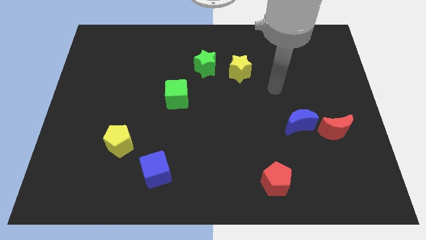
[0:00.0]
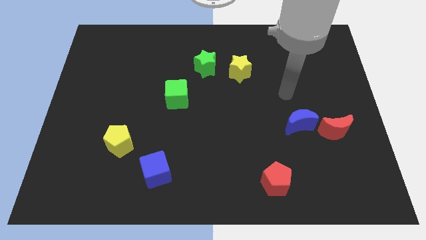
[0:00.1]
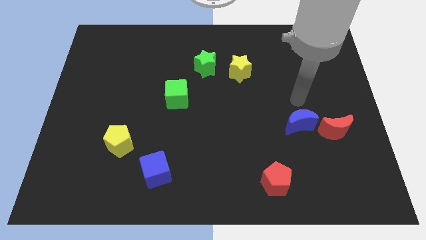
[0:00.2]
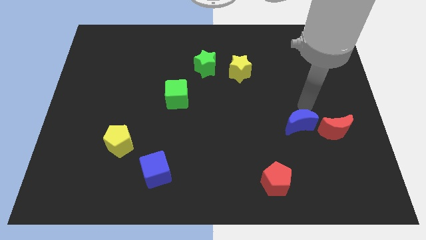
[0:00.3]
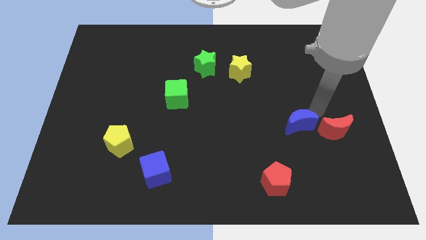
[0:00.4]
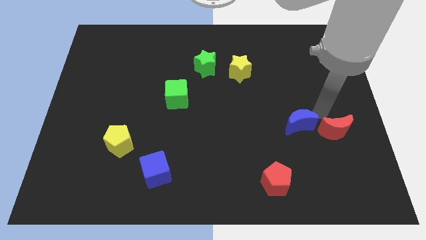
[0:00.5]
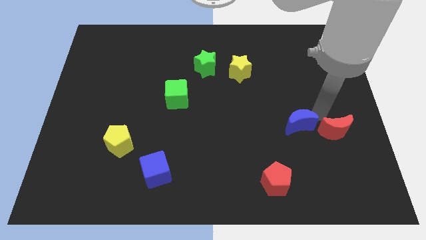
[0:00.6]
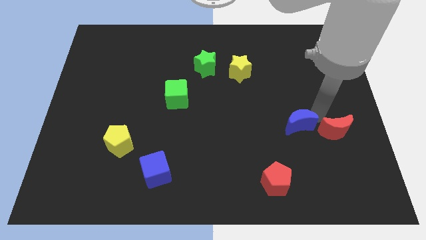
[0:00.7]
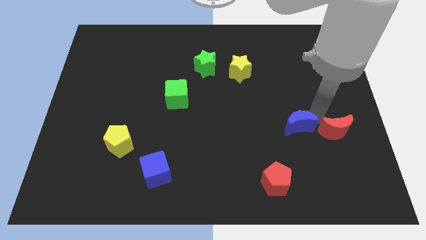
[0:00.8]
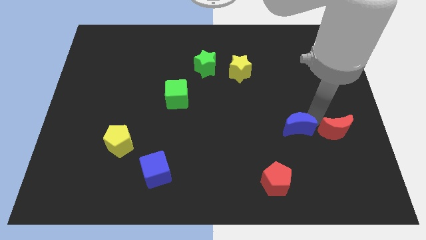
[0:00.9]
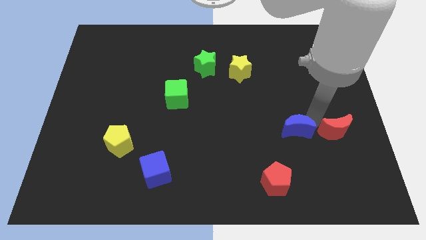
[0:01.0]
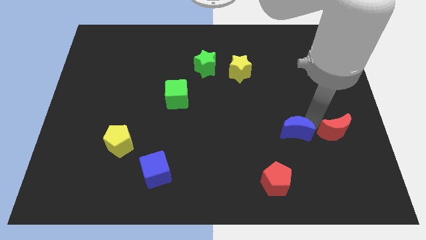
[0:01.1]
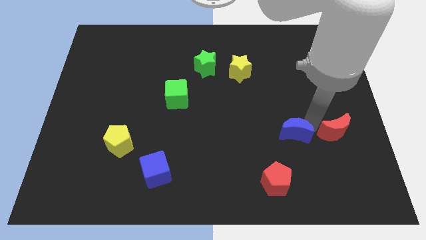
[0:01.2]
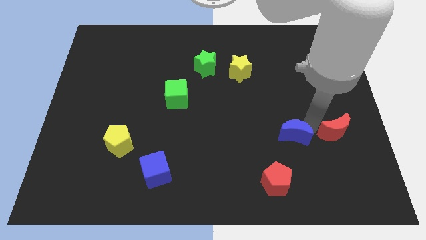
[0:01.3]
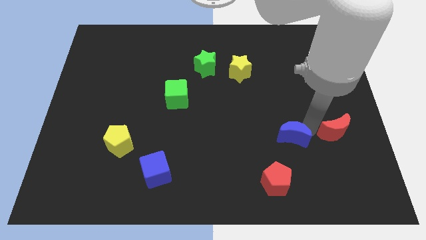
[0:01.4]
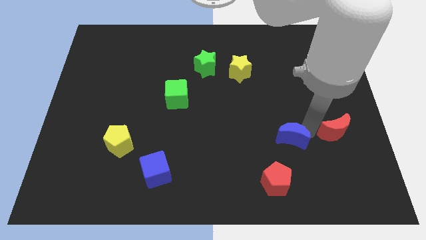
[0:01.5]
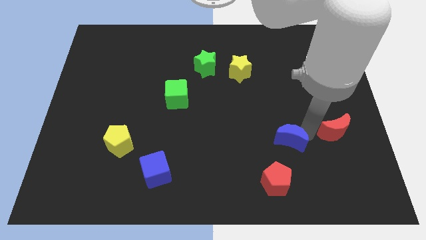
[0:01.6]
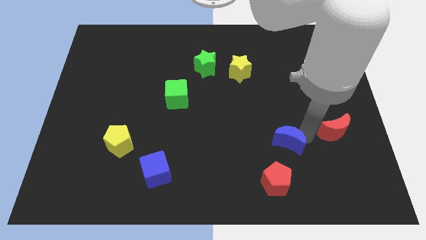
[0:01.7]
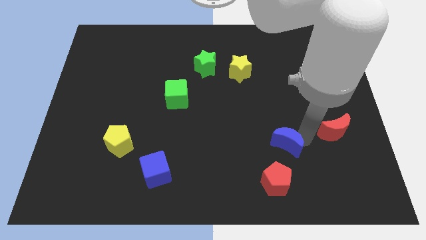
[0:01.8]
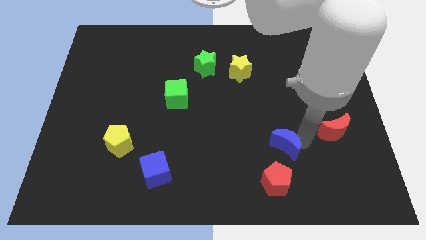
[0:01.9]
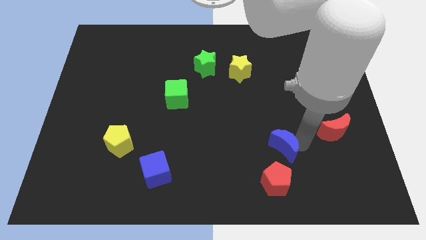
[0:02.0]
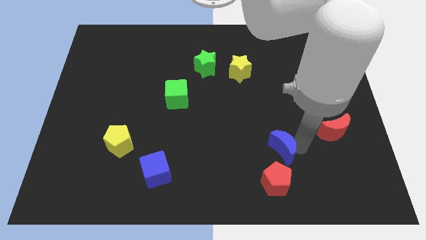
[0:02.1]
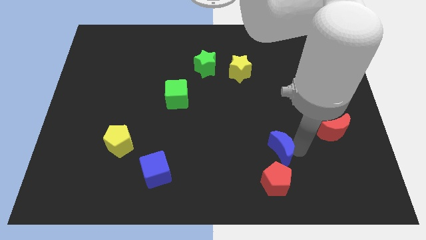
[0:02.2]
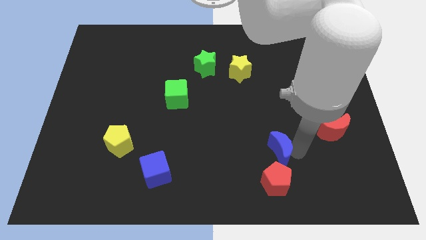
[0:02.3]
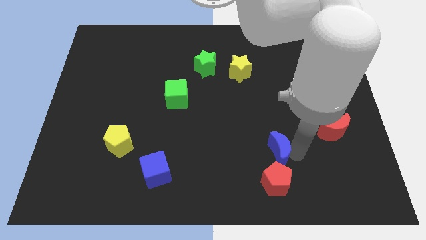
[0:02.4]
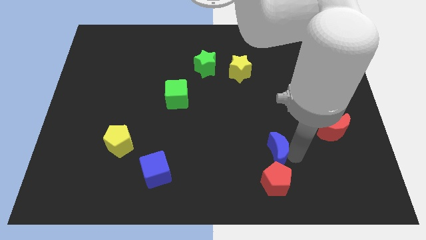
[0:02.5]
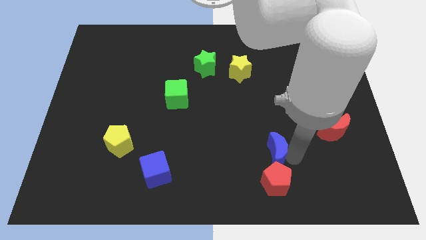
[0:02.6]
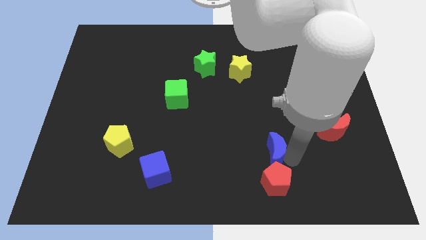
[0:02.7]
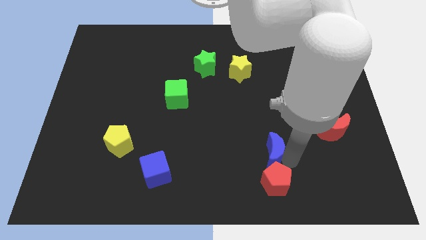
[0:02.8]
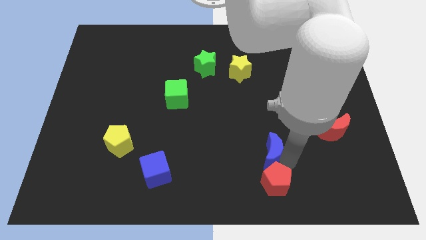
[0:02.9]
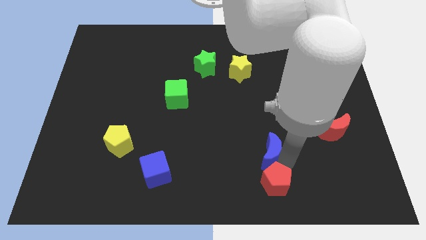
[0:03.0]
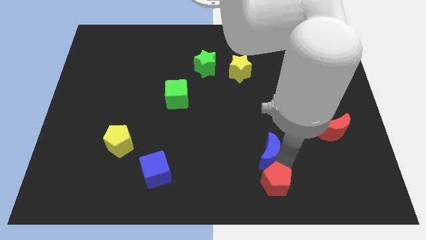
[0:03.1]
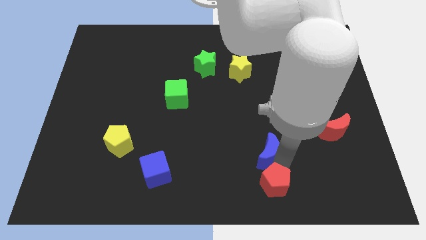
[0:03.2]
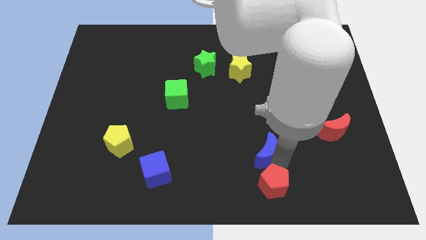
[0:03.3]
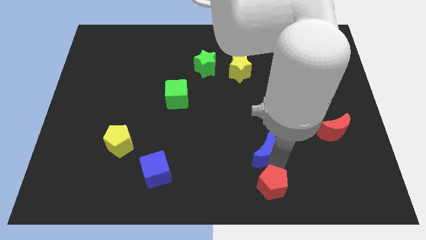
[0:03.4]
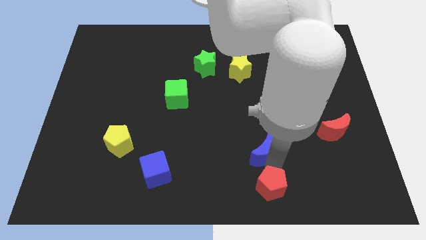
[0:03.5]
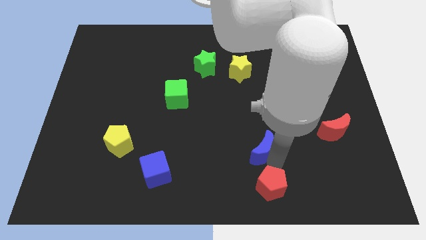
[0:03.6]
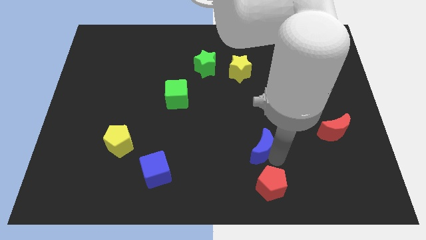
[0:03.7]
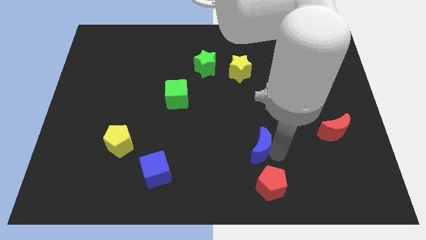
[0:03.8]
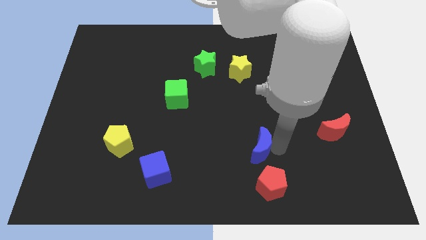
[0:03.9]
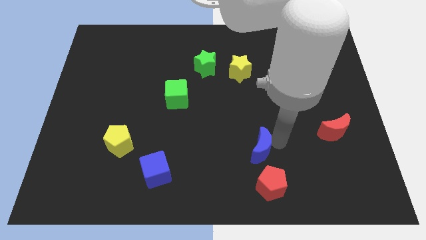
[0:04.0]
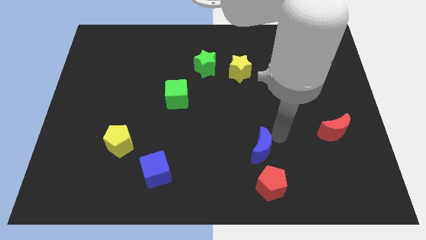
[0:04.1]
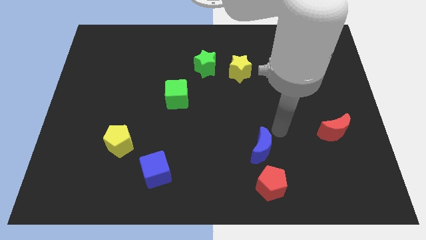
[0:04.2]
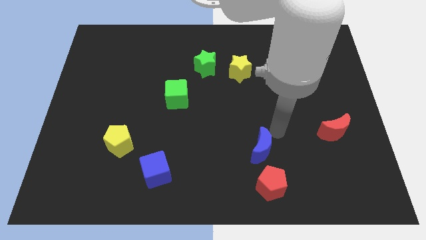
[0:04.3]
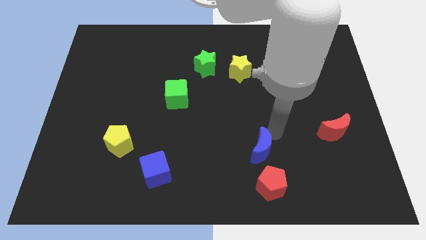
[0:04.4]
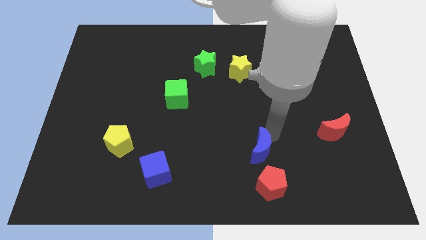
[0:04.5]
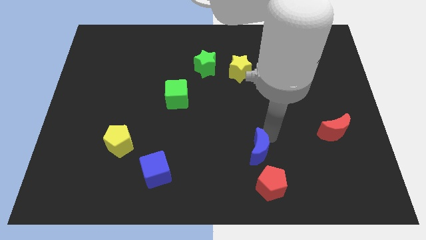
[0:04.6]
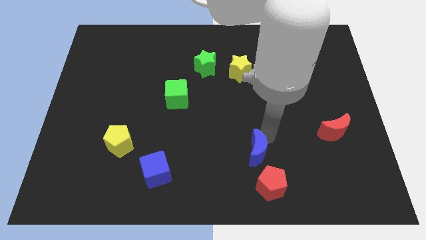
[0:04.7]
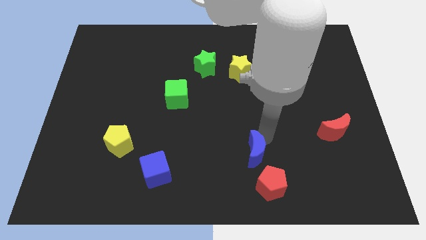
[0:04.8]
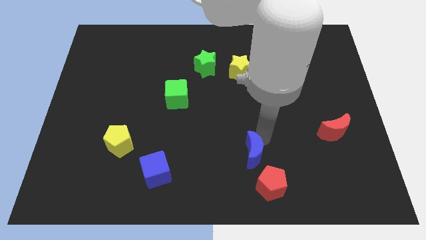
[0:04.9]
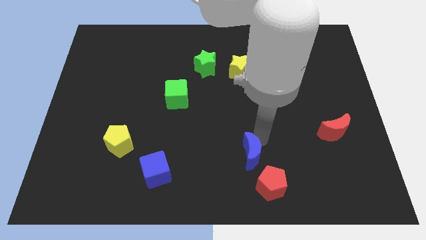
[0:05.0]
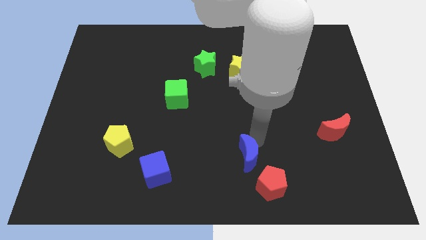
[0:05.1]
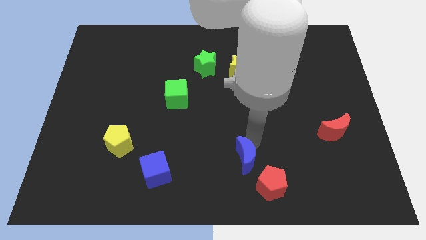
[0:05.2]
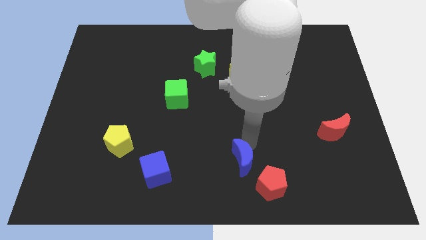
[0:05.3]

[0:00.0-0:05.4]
put the blue moon to the bottom side

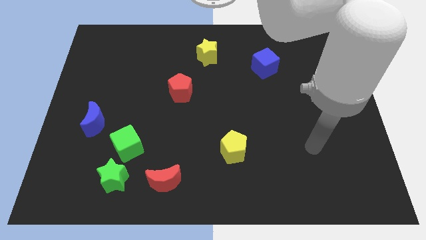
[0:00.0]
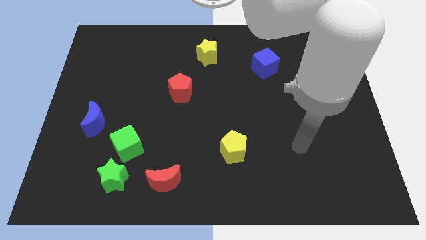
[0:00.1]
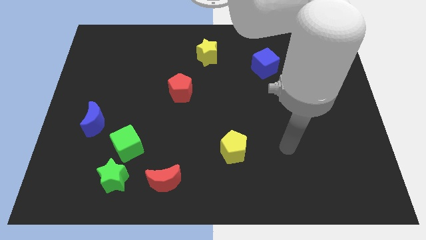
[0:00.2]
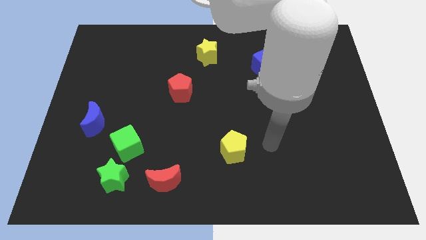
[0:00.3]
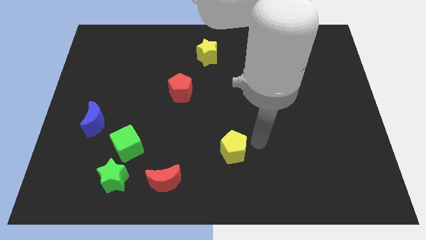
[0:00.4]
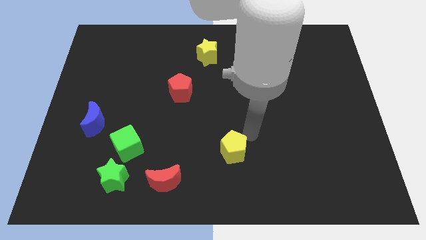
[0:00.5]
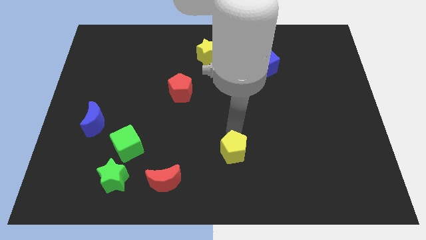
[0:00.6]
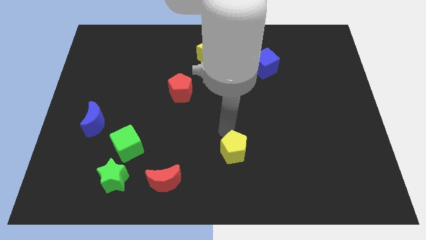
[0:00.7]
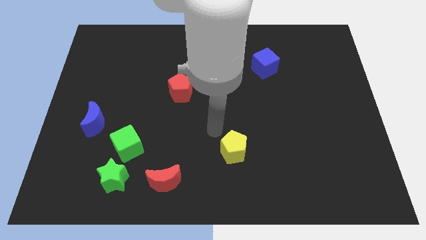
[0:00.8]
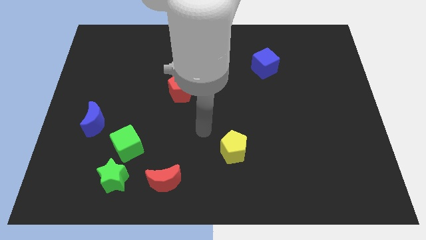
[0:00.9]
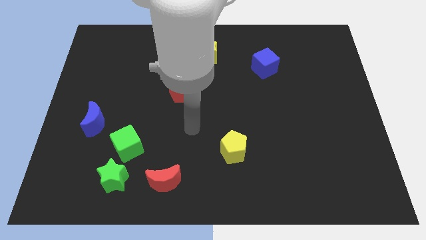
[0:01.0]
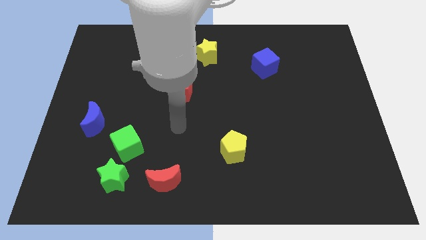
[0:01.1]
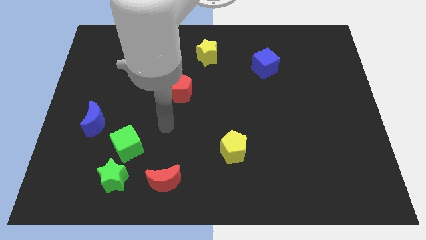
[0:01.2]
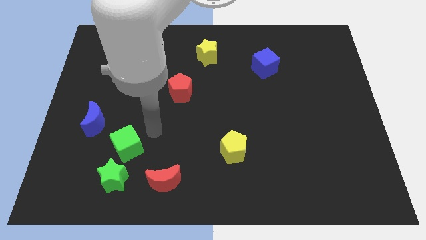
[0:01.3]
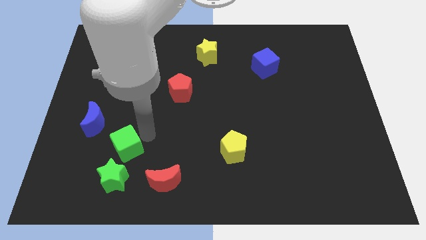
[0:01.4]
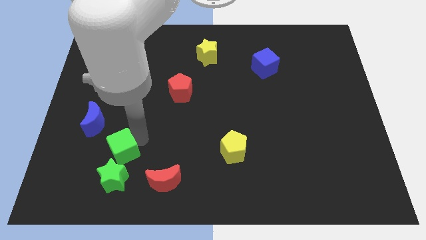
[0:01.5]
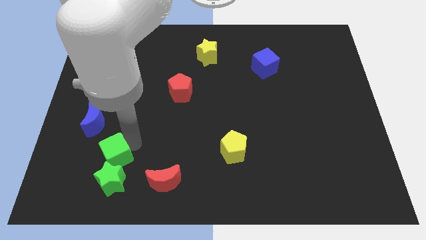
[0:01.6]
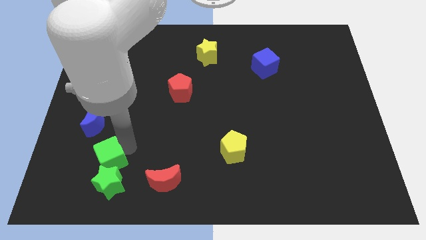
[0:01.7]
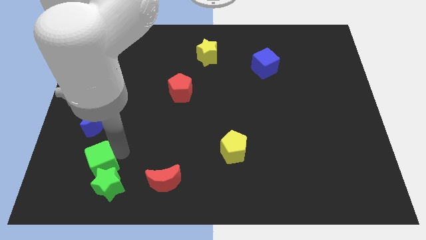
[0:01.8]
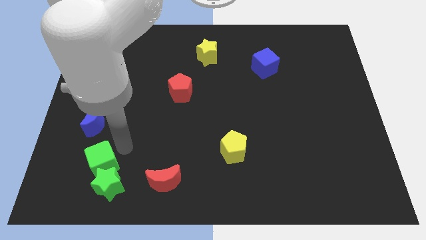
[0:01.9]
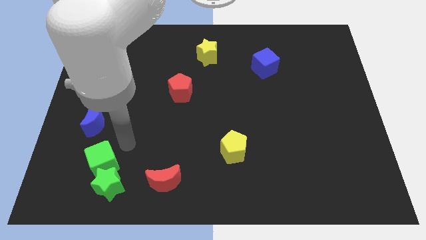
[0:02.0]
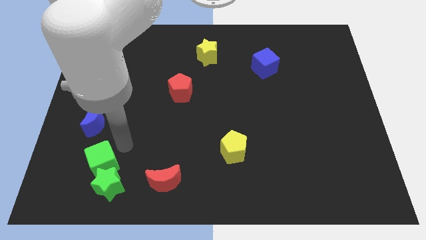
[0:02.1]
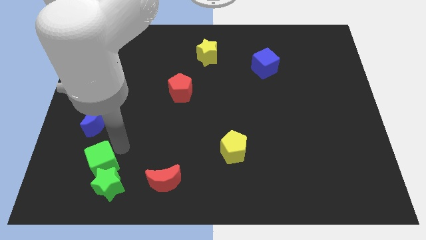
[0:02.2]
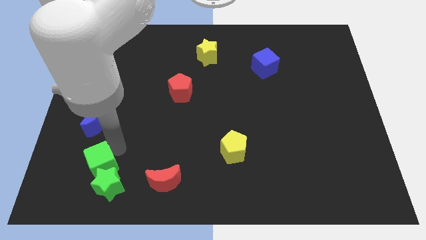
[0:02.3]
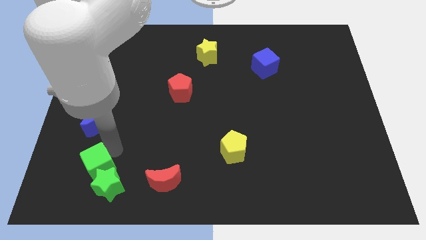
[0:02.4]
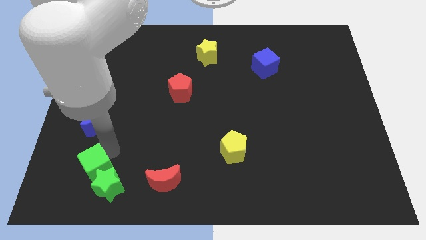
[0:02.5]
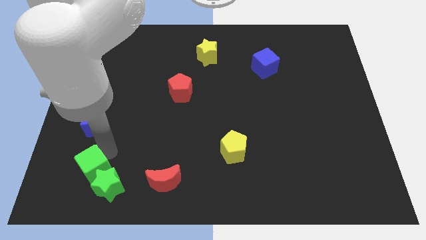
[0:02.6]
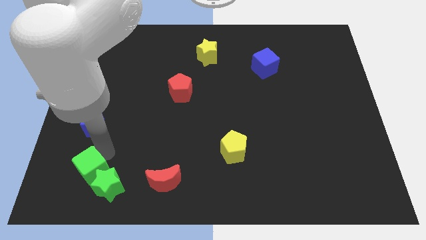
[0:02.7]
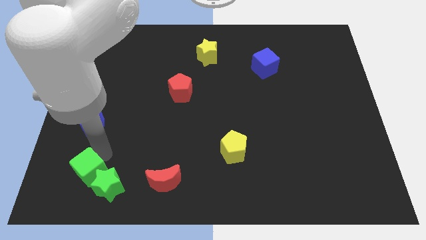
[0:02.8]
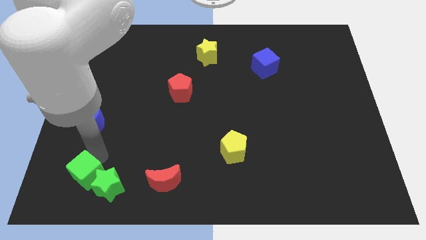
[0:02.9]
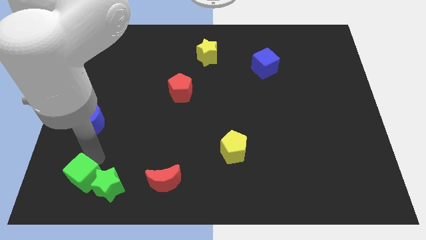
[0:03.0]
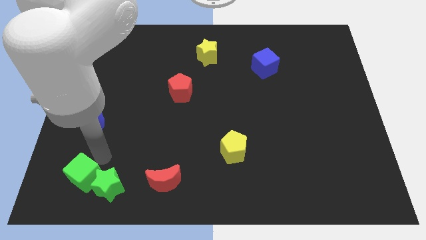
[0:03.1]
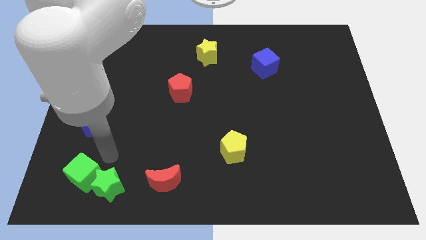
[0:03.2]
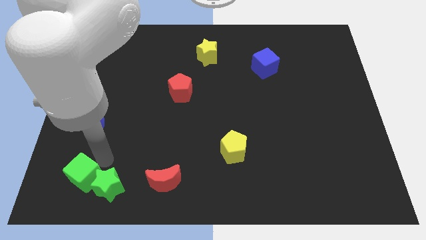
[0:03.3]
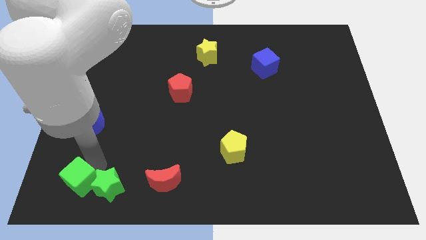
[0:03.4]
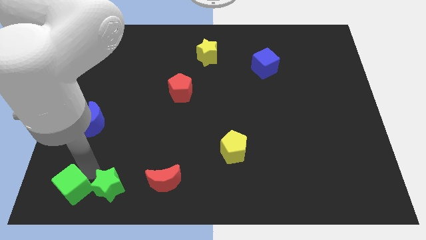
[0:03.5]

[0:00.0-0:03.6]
slide the green cube to the lower left corner
